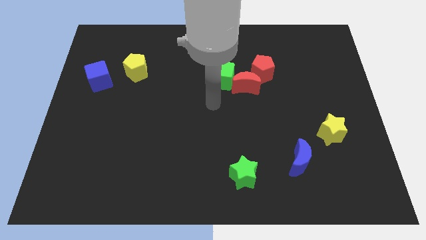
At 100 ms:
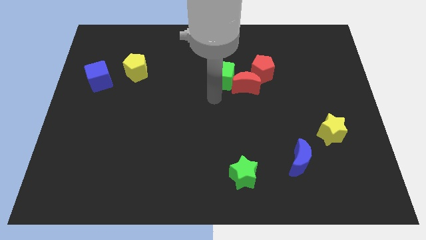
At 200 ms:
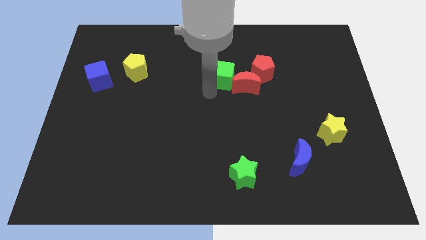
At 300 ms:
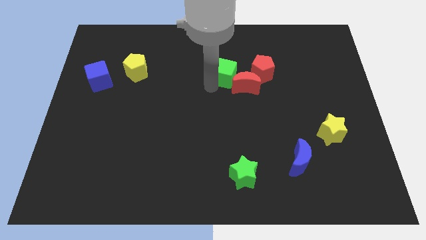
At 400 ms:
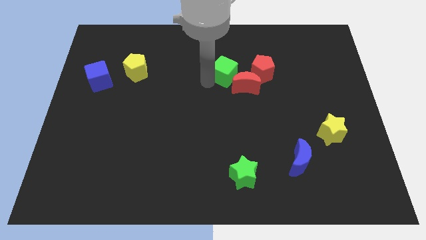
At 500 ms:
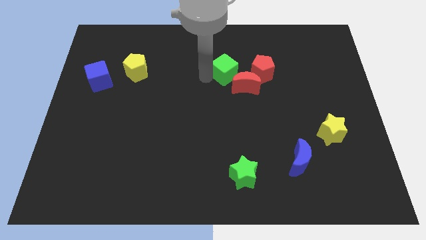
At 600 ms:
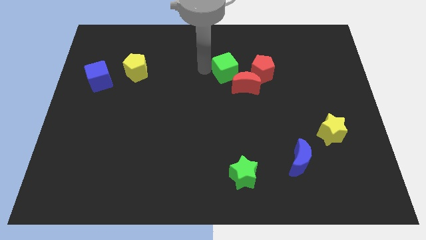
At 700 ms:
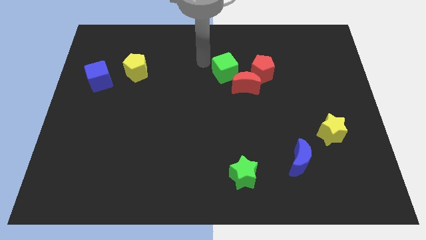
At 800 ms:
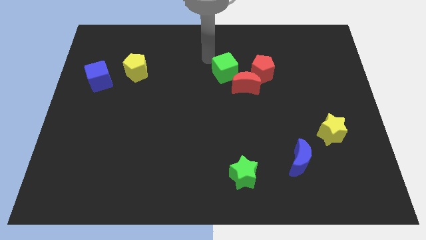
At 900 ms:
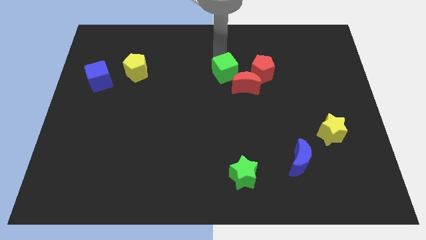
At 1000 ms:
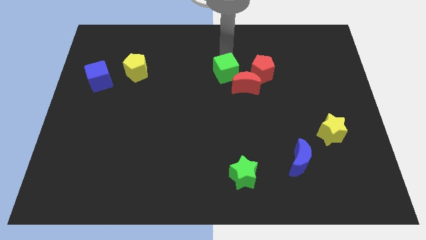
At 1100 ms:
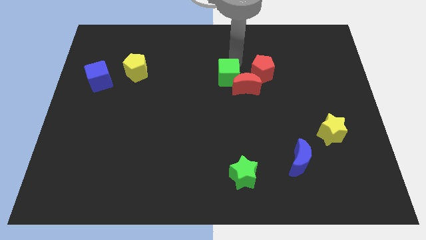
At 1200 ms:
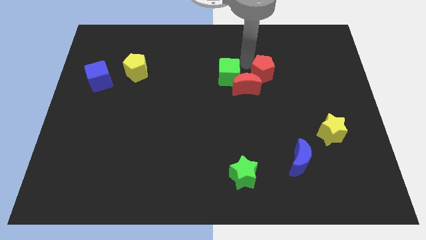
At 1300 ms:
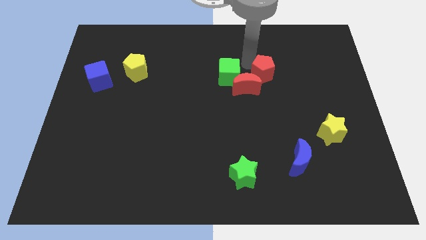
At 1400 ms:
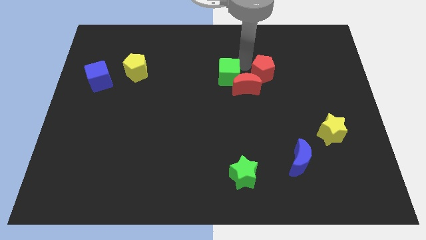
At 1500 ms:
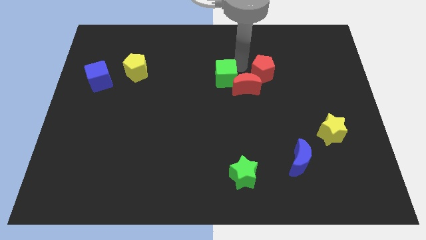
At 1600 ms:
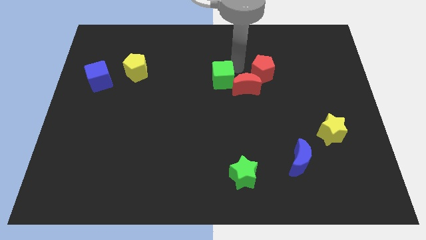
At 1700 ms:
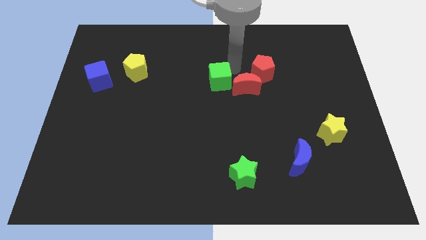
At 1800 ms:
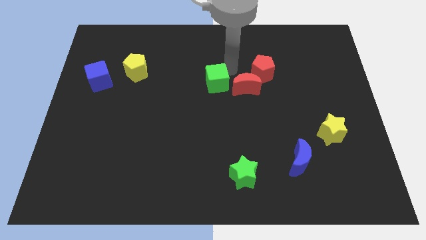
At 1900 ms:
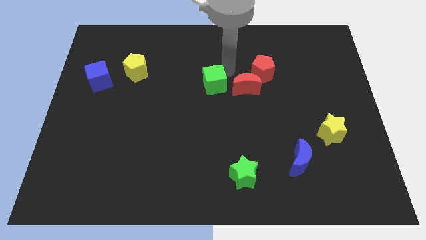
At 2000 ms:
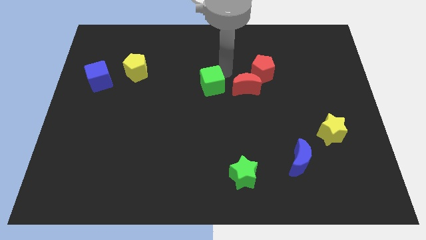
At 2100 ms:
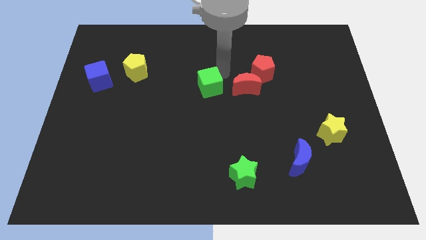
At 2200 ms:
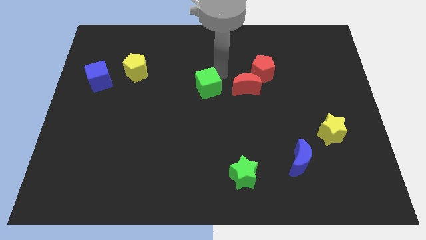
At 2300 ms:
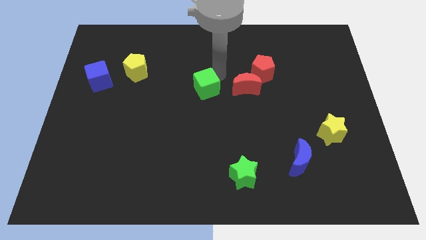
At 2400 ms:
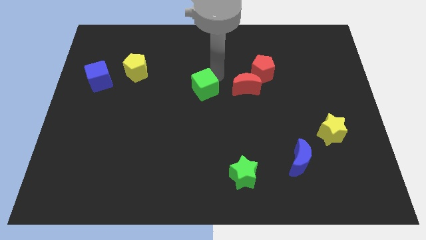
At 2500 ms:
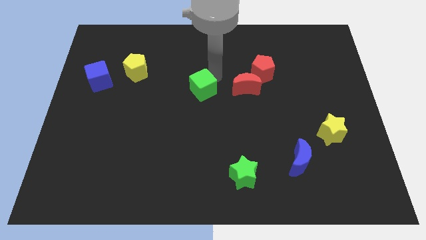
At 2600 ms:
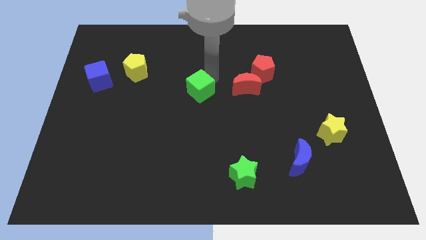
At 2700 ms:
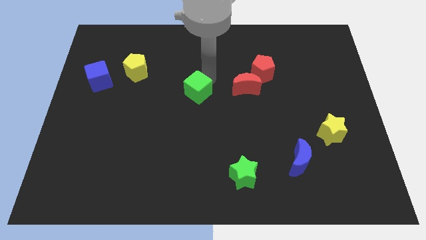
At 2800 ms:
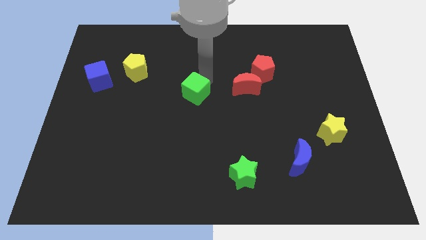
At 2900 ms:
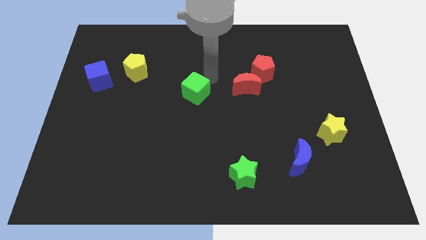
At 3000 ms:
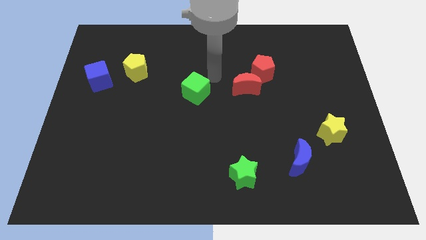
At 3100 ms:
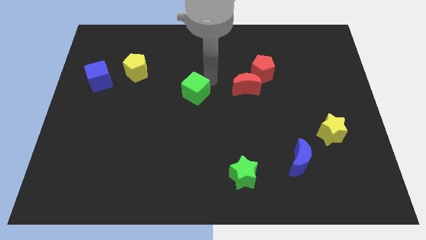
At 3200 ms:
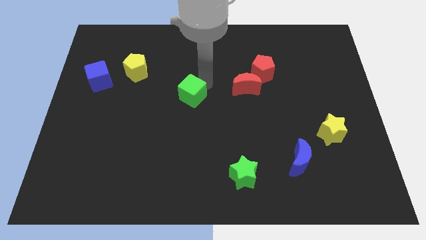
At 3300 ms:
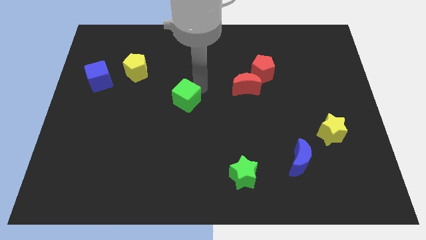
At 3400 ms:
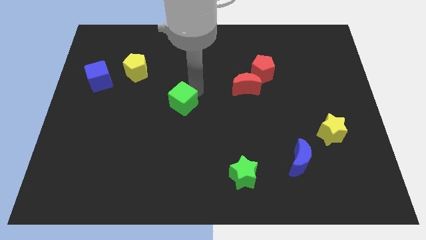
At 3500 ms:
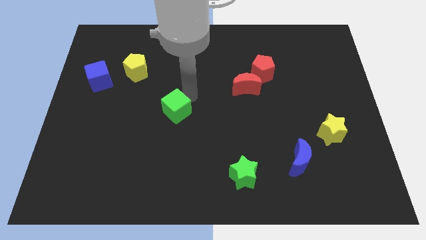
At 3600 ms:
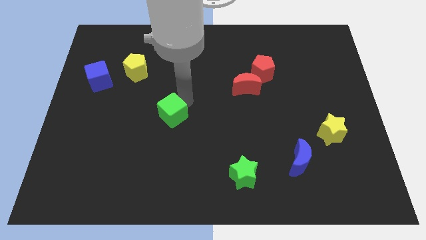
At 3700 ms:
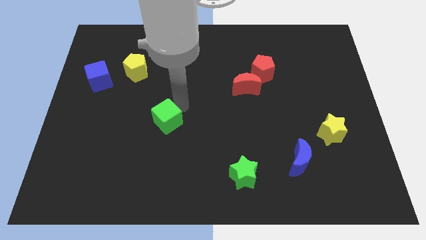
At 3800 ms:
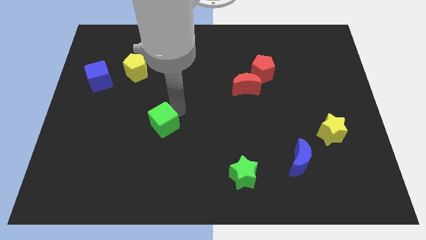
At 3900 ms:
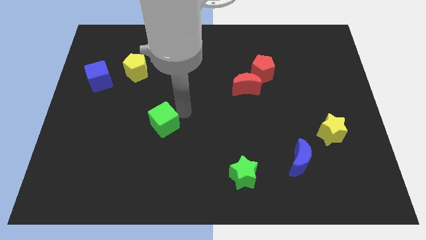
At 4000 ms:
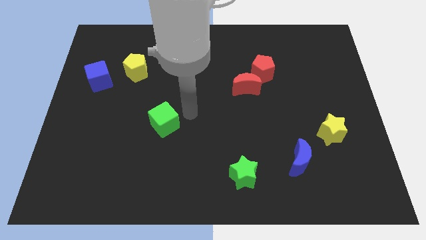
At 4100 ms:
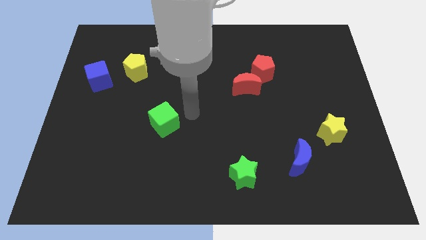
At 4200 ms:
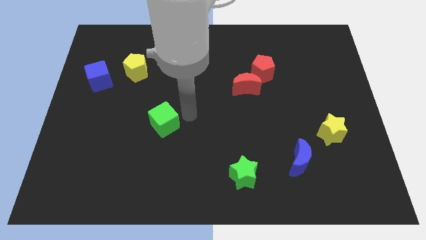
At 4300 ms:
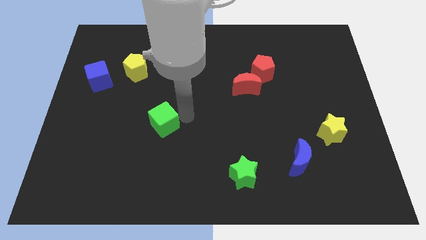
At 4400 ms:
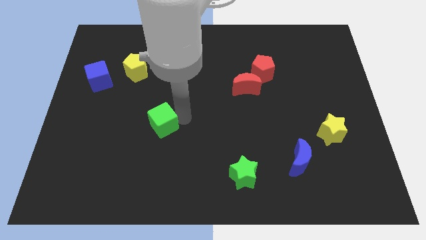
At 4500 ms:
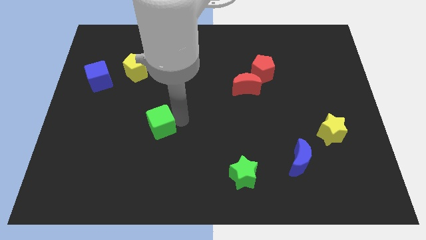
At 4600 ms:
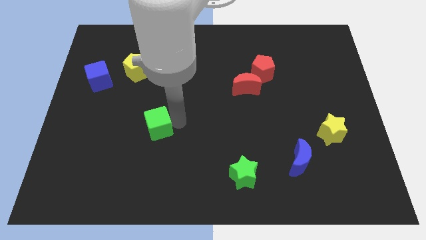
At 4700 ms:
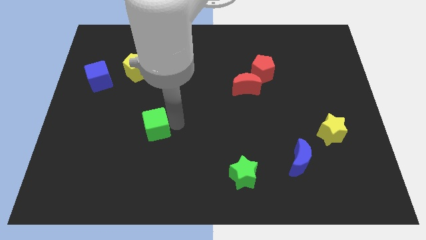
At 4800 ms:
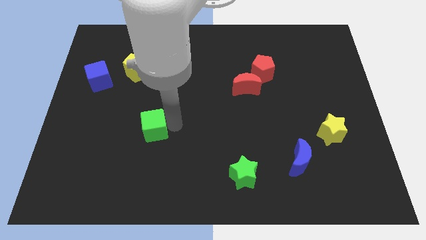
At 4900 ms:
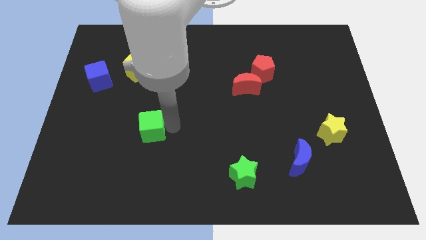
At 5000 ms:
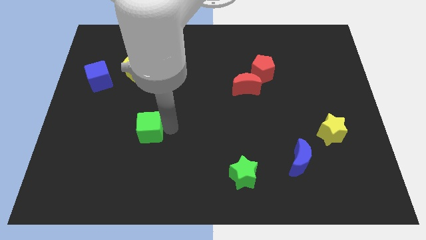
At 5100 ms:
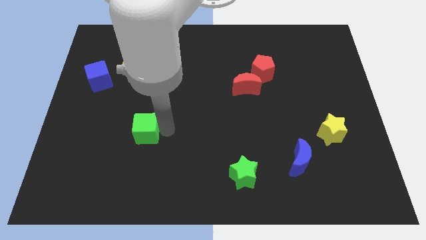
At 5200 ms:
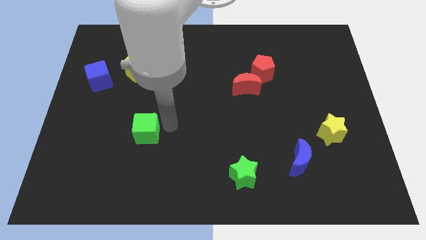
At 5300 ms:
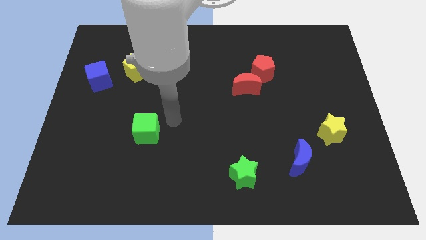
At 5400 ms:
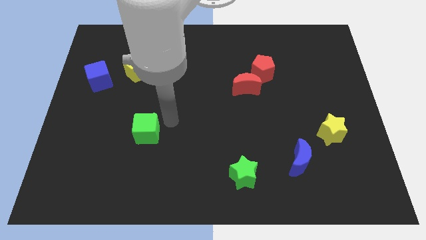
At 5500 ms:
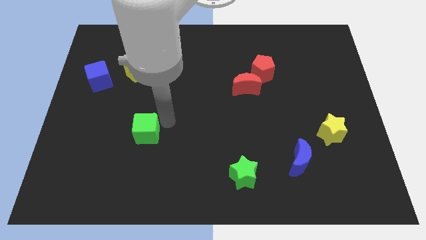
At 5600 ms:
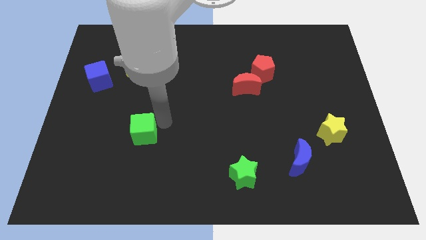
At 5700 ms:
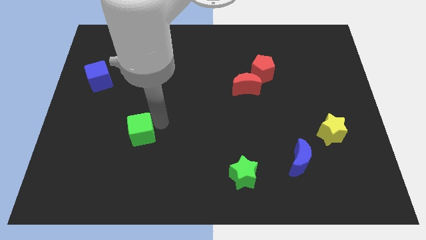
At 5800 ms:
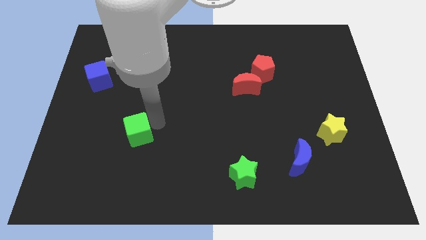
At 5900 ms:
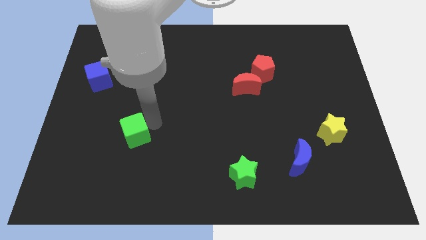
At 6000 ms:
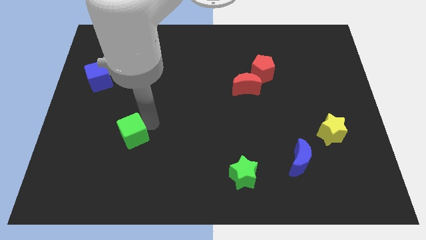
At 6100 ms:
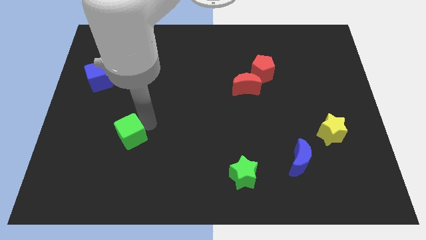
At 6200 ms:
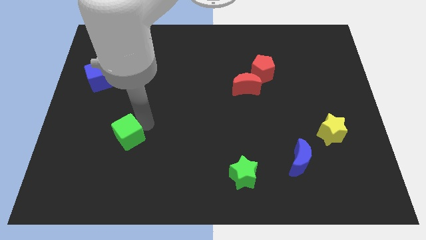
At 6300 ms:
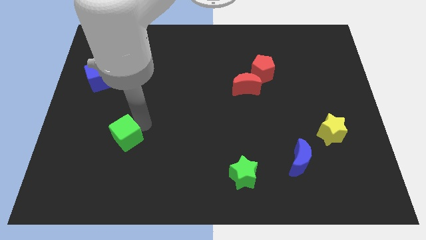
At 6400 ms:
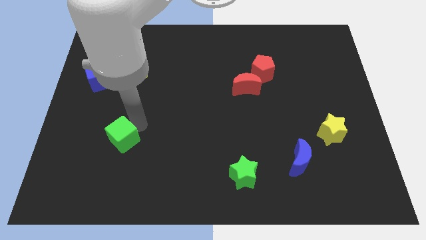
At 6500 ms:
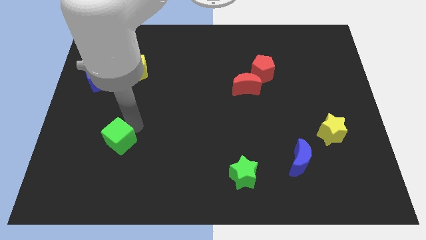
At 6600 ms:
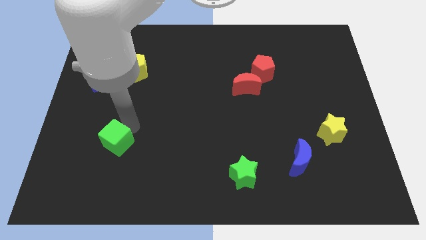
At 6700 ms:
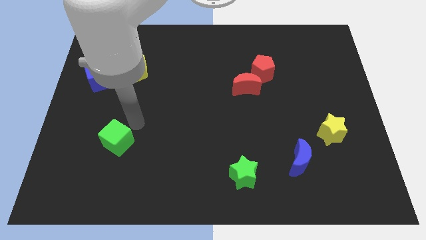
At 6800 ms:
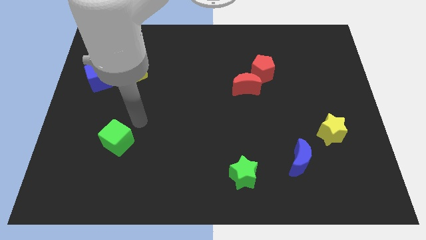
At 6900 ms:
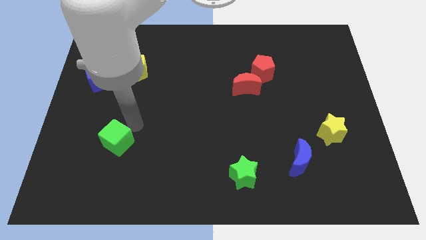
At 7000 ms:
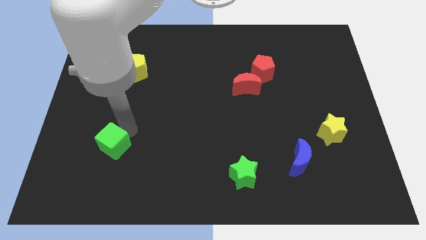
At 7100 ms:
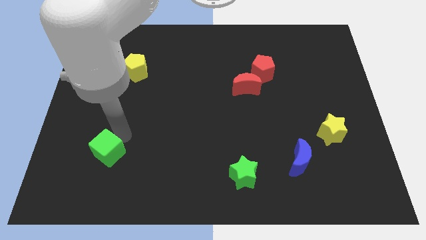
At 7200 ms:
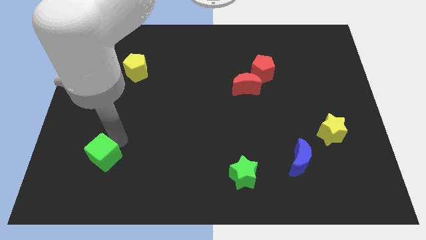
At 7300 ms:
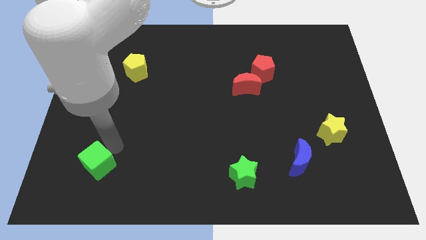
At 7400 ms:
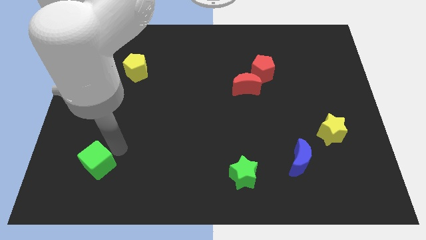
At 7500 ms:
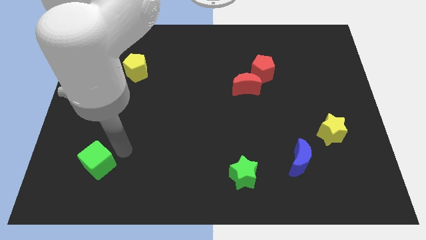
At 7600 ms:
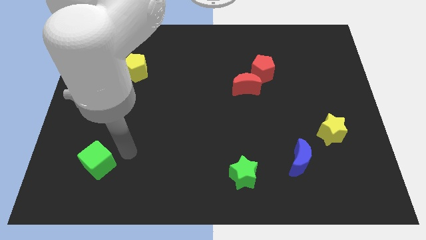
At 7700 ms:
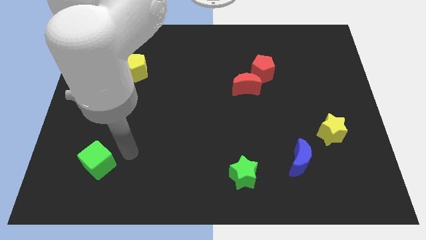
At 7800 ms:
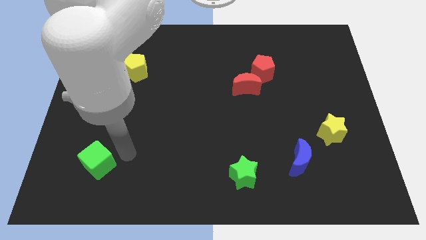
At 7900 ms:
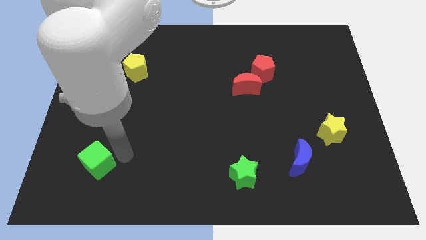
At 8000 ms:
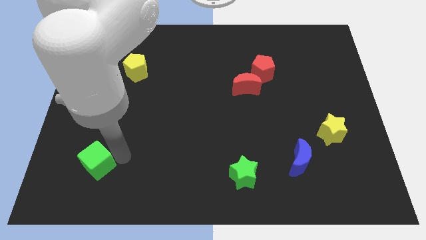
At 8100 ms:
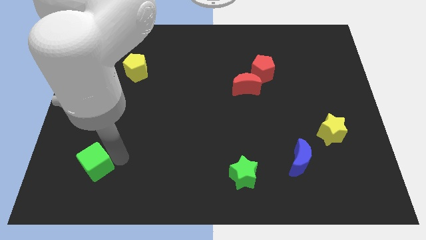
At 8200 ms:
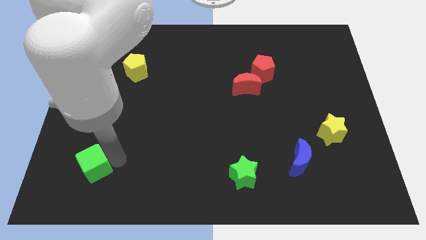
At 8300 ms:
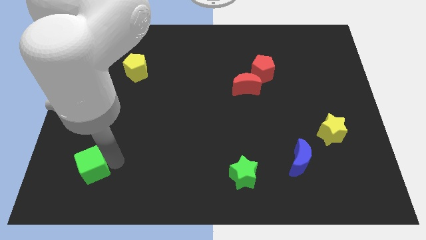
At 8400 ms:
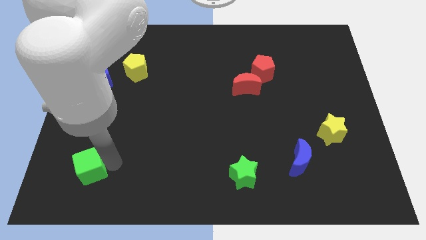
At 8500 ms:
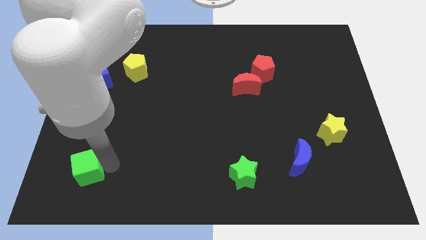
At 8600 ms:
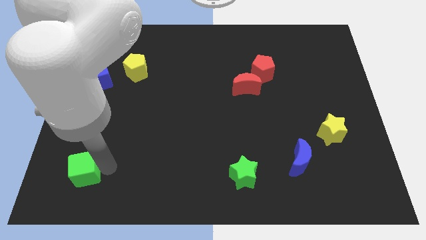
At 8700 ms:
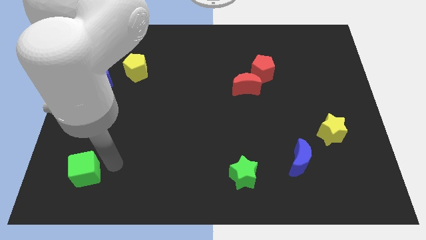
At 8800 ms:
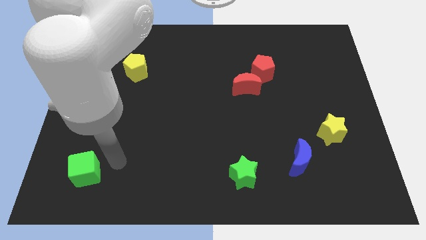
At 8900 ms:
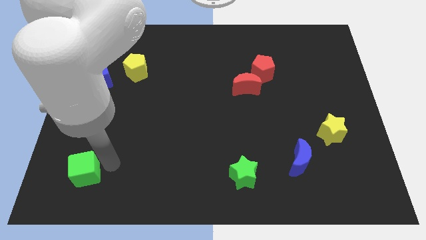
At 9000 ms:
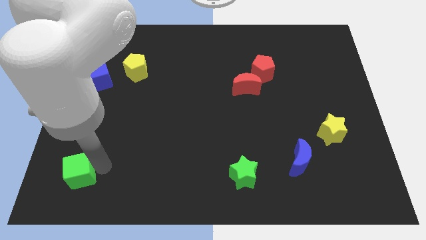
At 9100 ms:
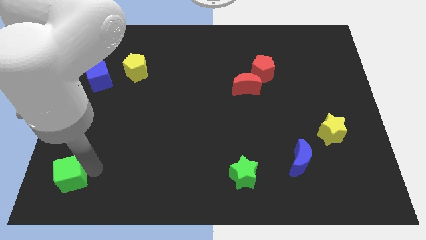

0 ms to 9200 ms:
slide the green cube to the bottom left
